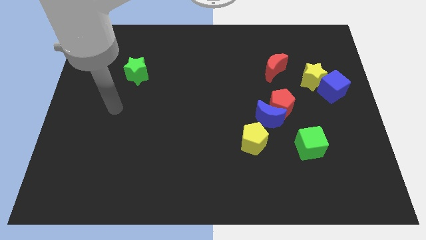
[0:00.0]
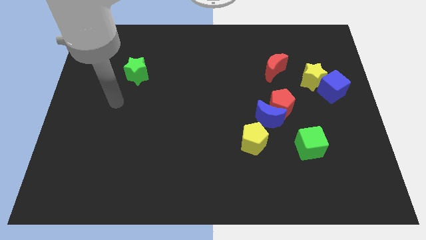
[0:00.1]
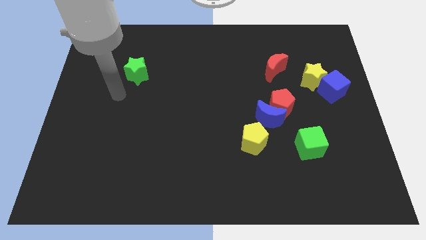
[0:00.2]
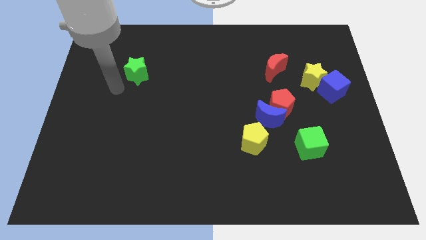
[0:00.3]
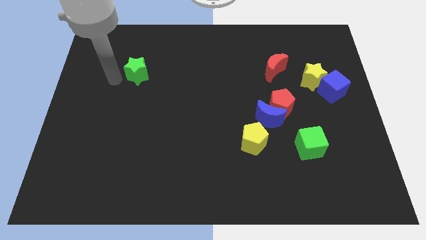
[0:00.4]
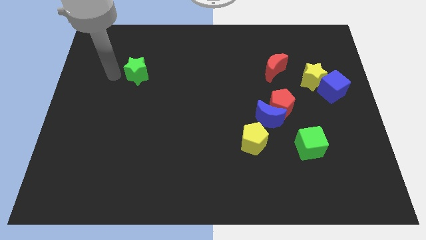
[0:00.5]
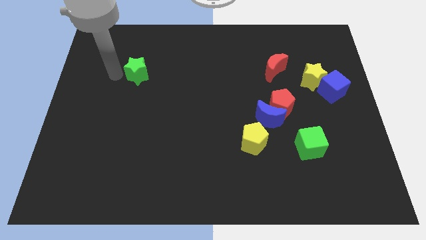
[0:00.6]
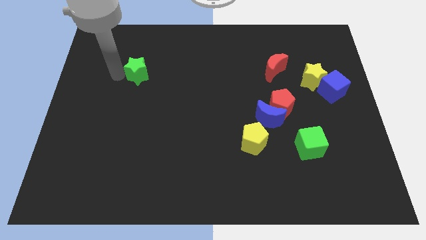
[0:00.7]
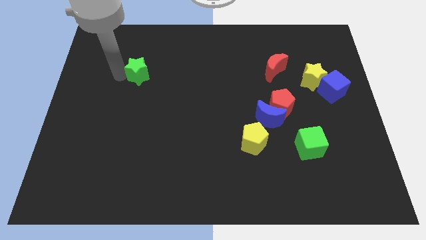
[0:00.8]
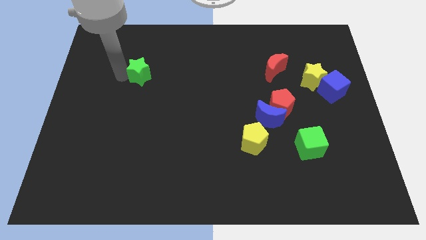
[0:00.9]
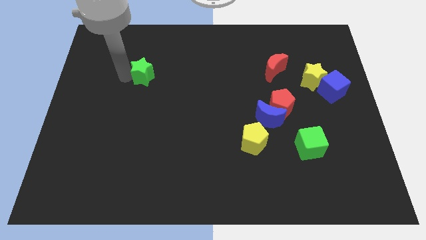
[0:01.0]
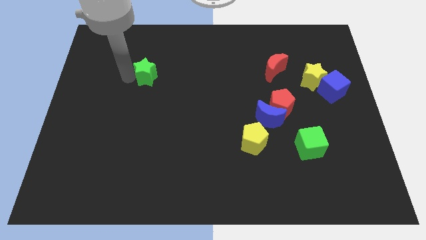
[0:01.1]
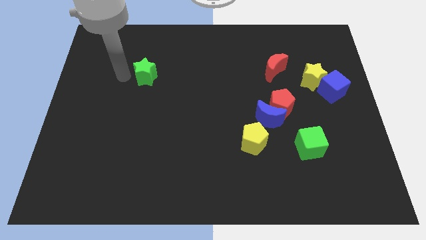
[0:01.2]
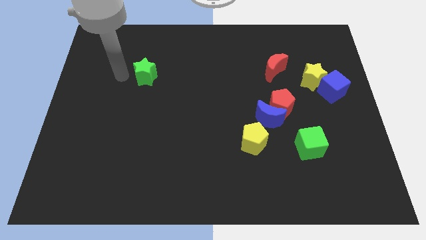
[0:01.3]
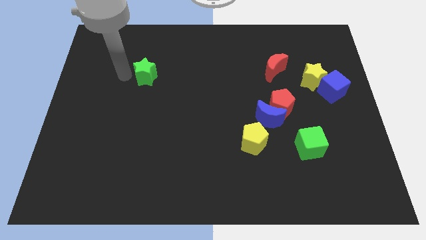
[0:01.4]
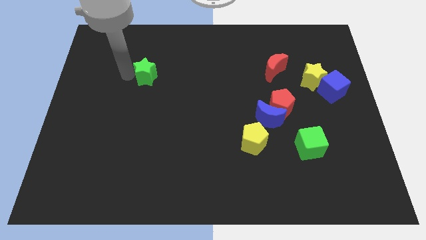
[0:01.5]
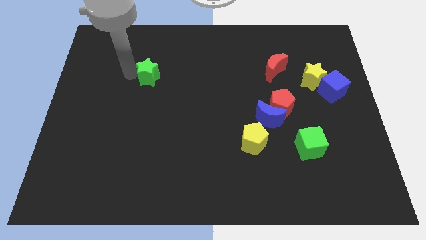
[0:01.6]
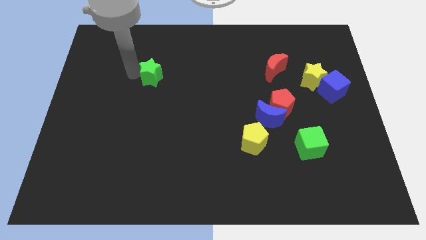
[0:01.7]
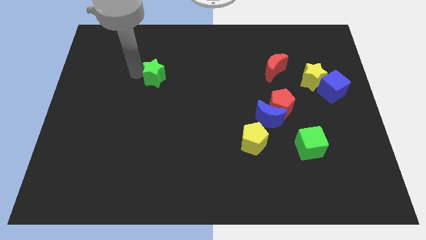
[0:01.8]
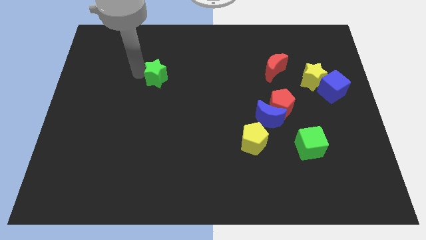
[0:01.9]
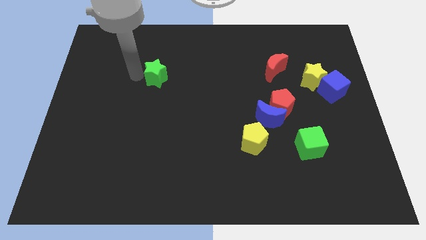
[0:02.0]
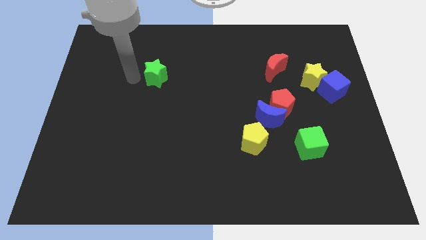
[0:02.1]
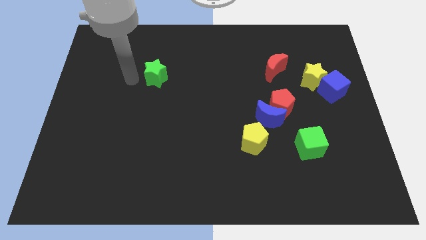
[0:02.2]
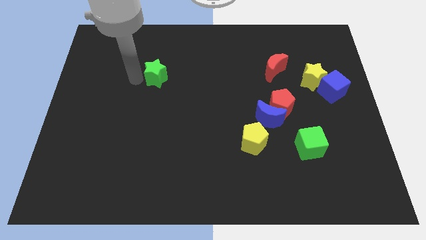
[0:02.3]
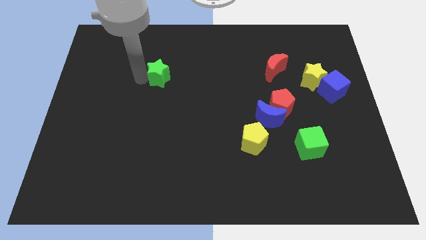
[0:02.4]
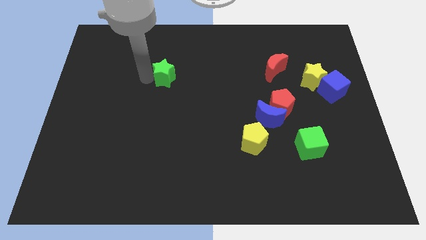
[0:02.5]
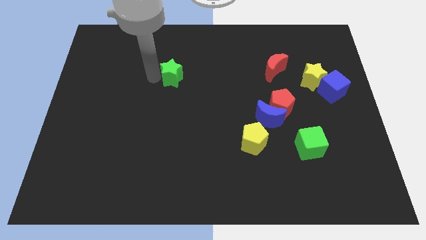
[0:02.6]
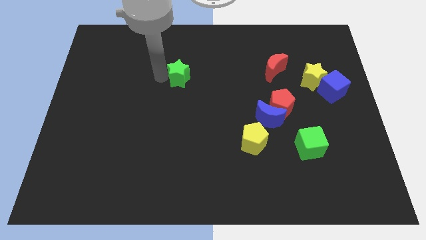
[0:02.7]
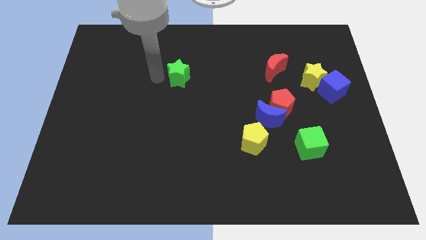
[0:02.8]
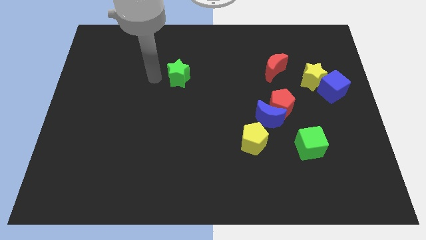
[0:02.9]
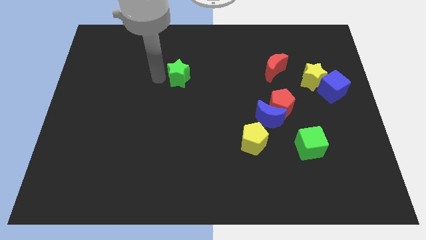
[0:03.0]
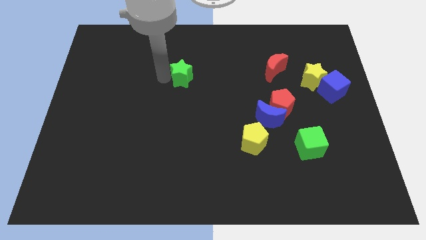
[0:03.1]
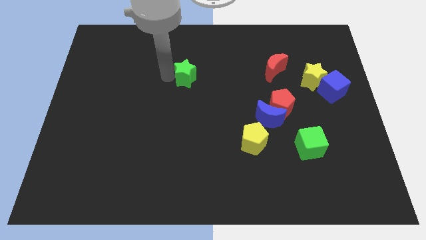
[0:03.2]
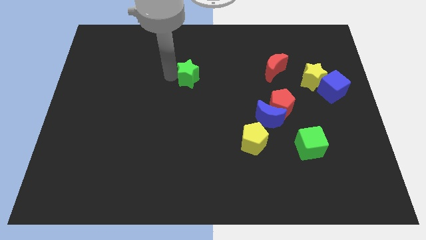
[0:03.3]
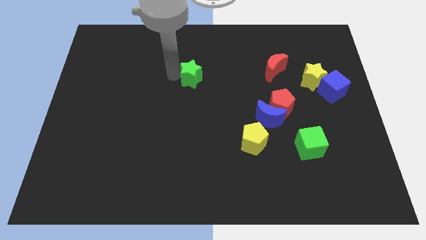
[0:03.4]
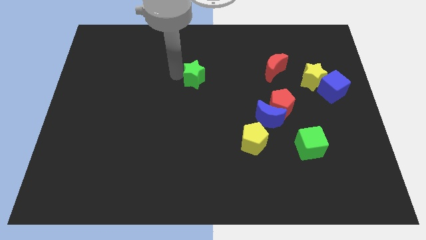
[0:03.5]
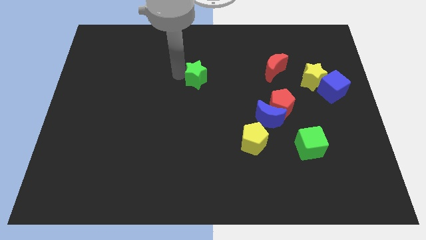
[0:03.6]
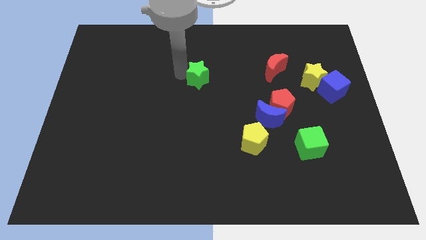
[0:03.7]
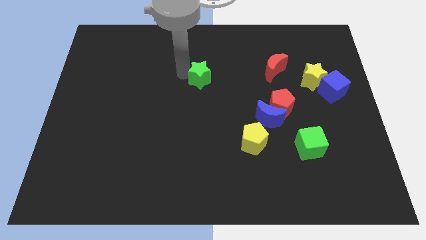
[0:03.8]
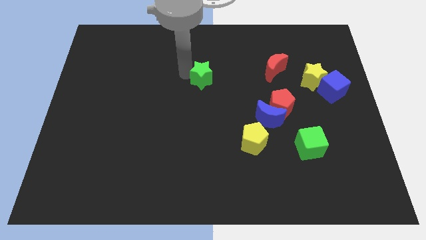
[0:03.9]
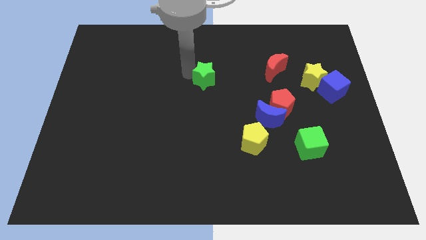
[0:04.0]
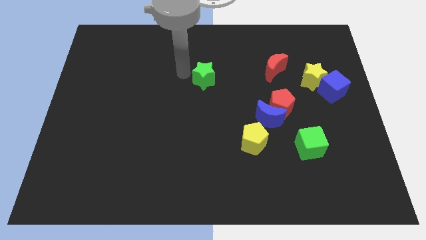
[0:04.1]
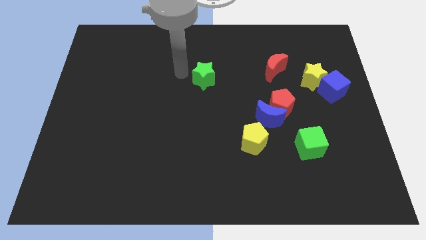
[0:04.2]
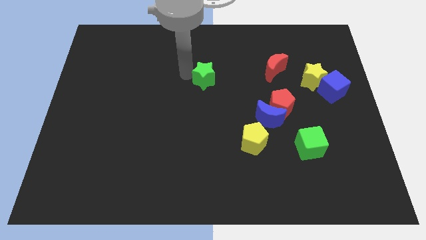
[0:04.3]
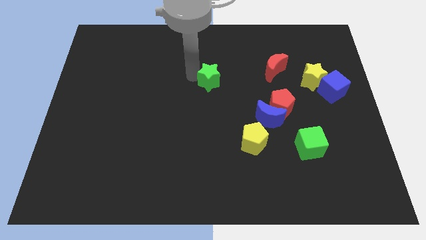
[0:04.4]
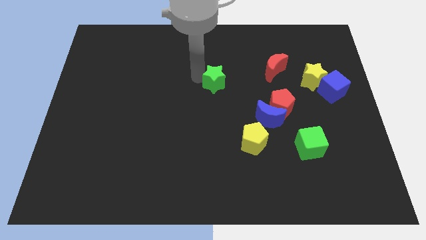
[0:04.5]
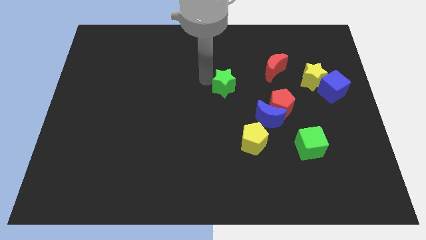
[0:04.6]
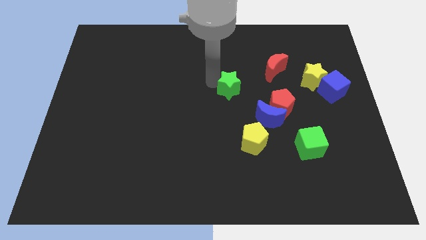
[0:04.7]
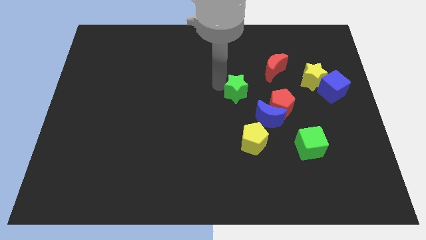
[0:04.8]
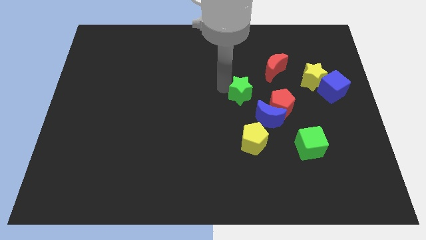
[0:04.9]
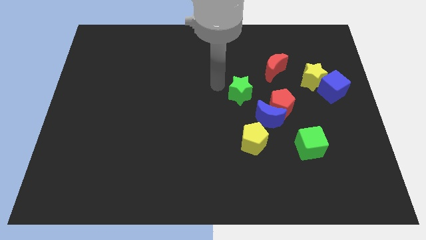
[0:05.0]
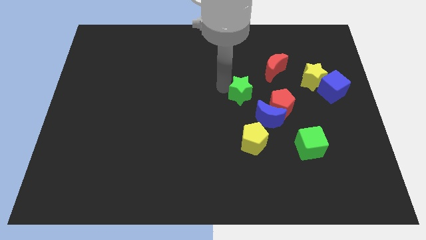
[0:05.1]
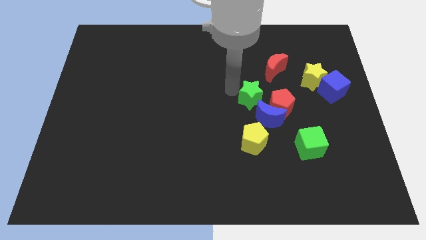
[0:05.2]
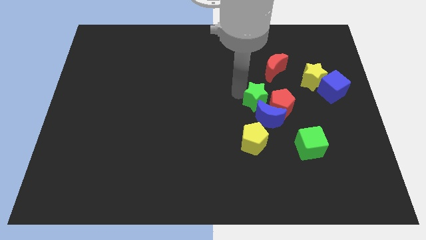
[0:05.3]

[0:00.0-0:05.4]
put the green star close to the red pentagon

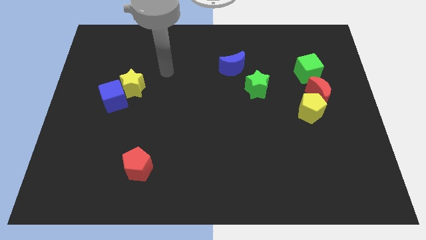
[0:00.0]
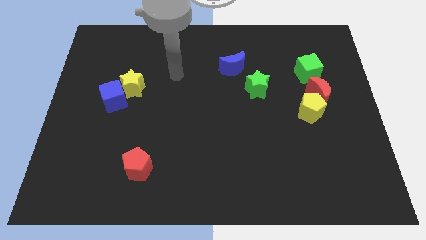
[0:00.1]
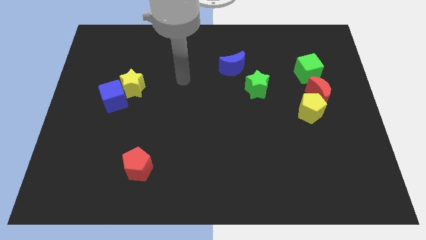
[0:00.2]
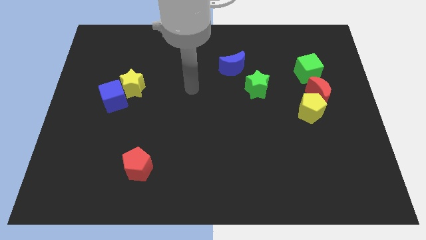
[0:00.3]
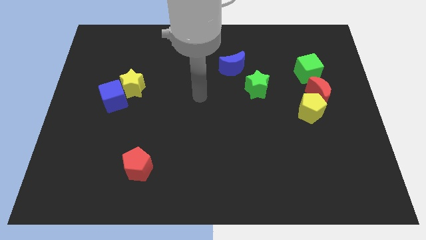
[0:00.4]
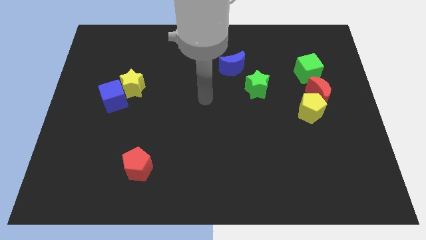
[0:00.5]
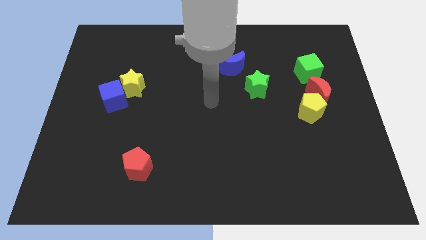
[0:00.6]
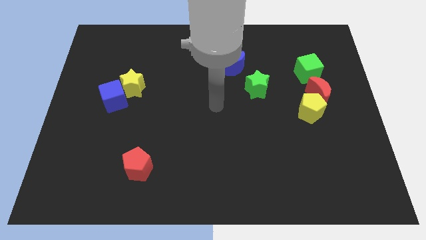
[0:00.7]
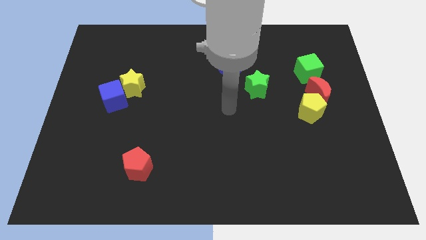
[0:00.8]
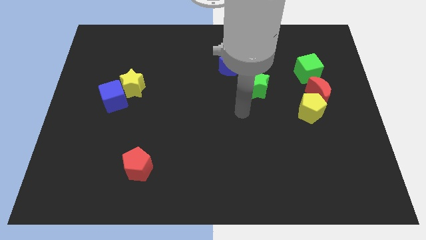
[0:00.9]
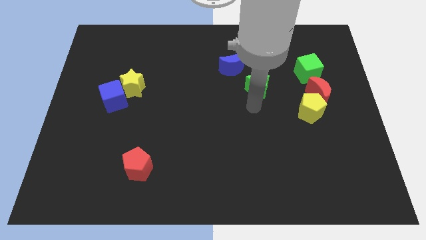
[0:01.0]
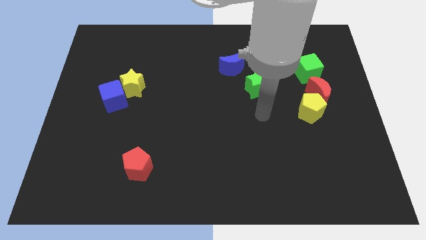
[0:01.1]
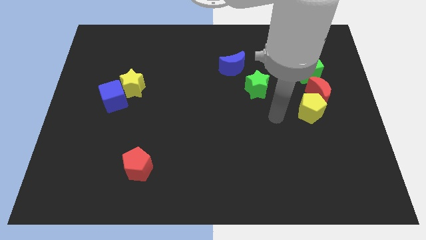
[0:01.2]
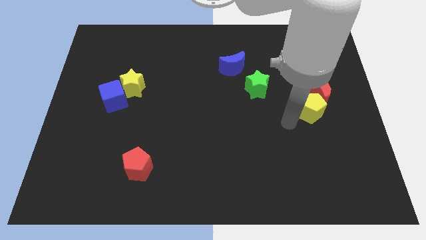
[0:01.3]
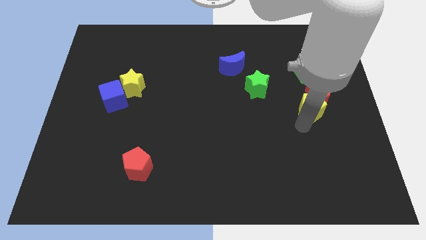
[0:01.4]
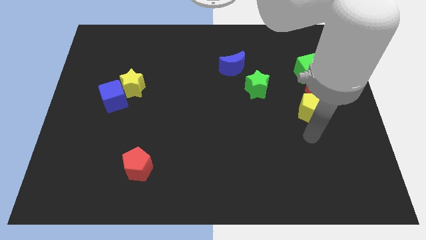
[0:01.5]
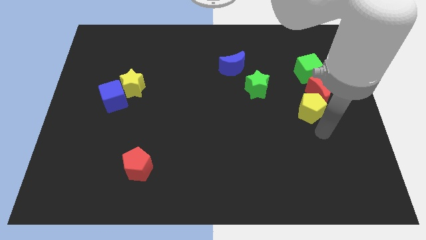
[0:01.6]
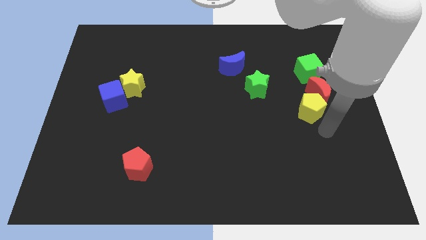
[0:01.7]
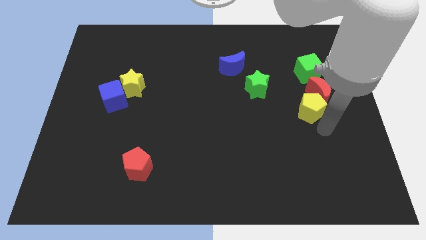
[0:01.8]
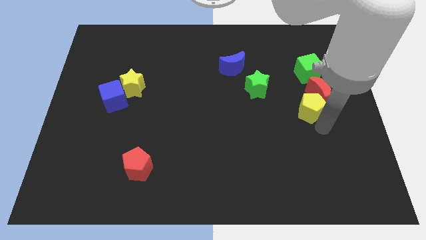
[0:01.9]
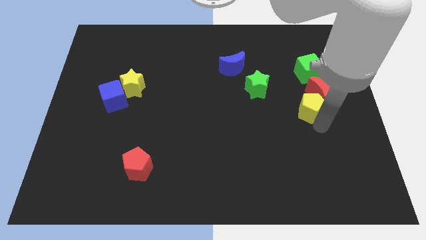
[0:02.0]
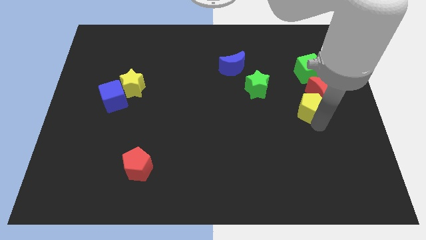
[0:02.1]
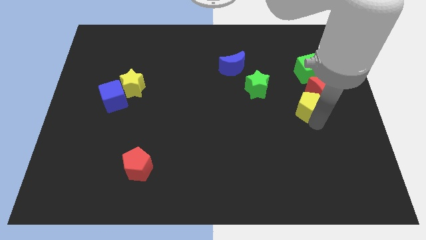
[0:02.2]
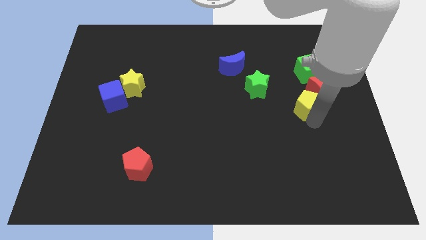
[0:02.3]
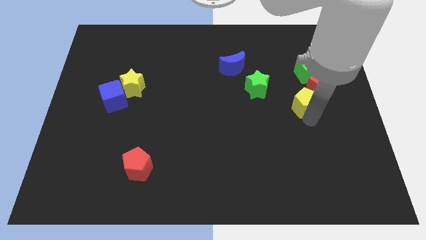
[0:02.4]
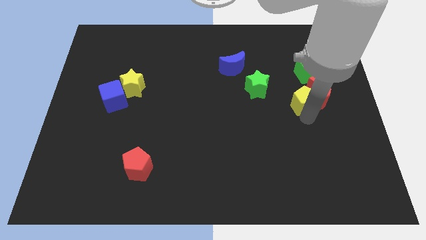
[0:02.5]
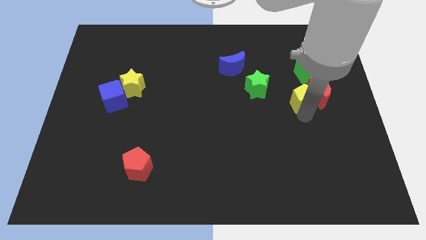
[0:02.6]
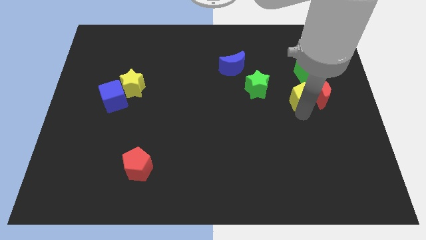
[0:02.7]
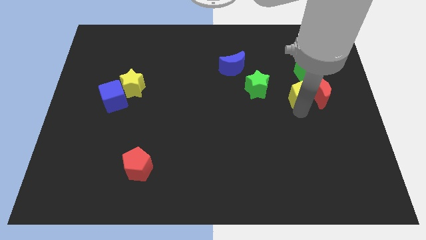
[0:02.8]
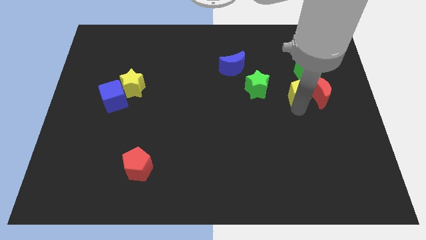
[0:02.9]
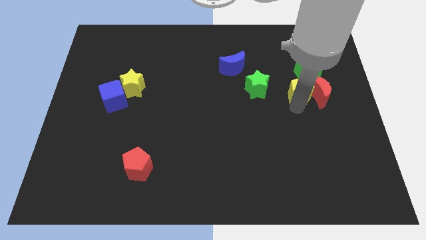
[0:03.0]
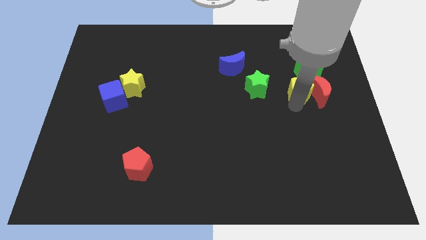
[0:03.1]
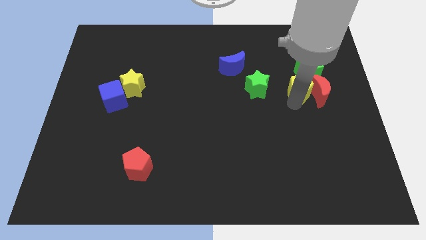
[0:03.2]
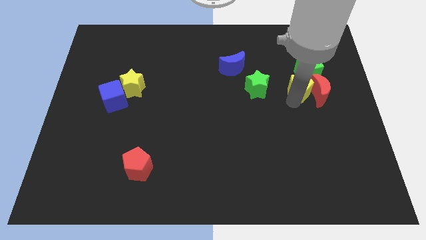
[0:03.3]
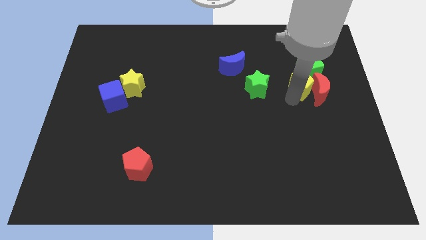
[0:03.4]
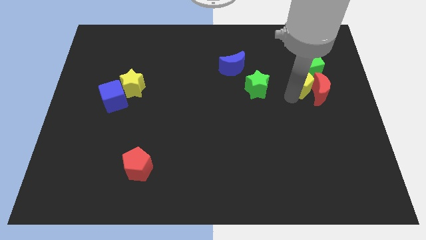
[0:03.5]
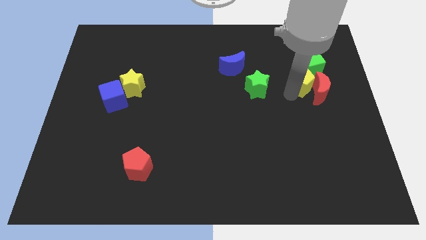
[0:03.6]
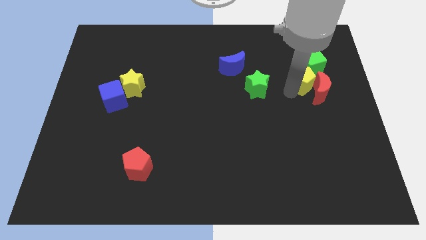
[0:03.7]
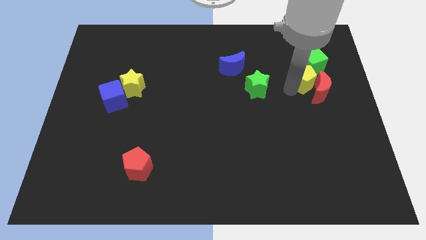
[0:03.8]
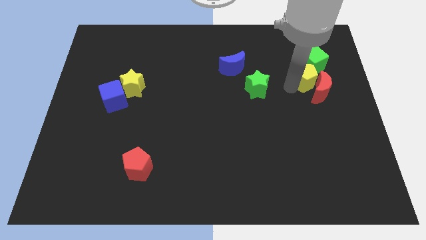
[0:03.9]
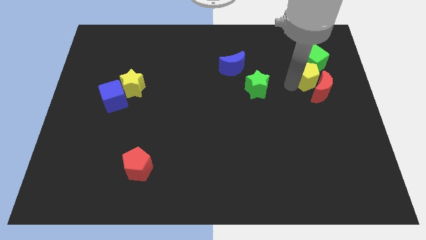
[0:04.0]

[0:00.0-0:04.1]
move the yellow pentagon to the green cube
